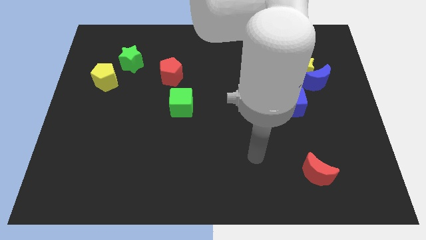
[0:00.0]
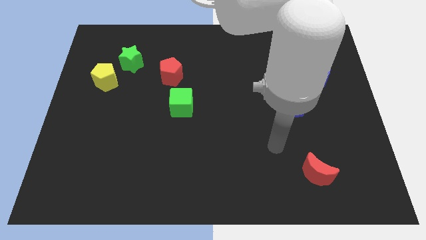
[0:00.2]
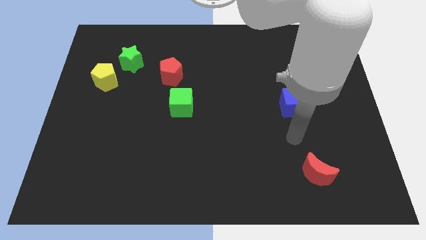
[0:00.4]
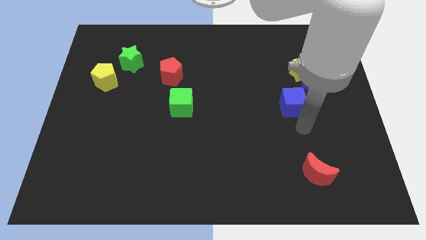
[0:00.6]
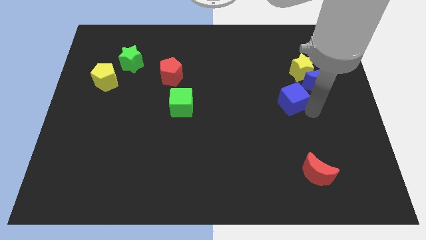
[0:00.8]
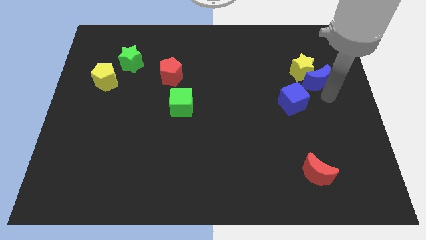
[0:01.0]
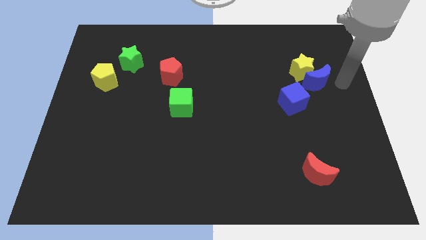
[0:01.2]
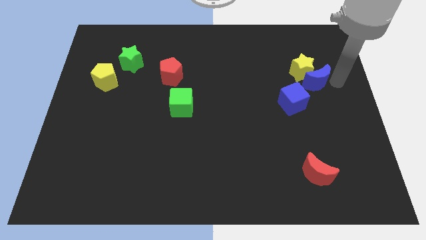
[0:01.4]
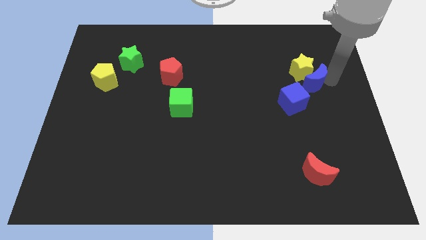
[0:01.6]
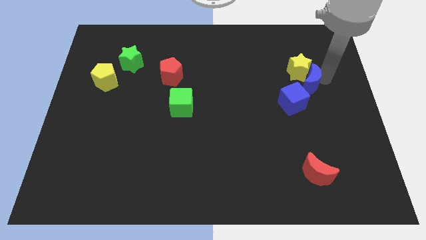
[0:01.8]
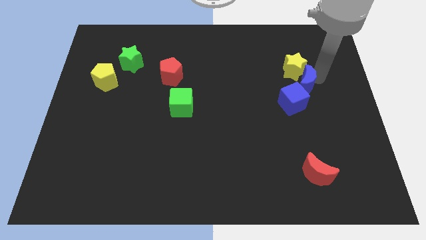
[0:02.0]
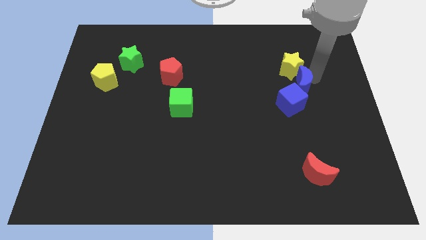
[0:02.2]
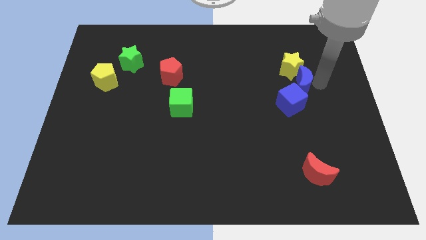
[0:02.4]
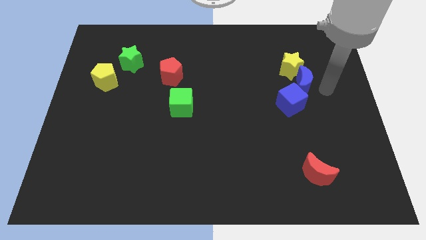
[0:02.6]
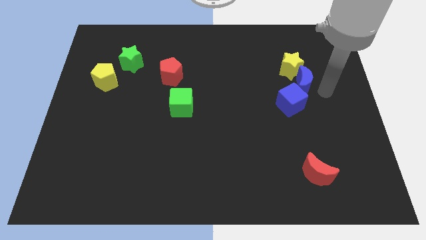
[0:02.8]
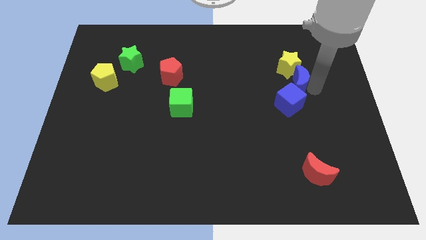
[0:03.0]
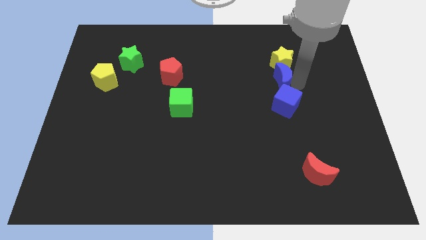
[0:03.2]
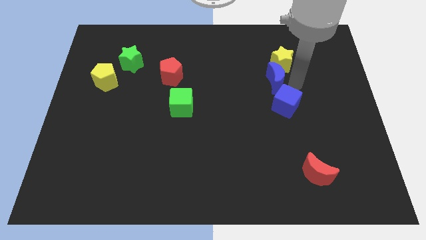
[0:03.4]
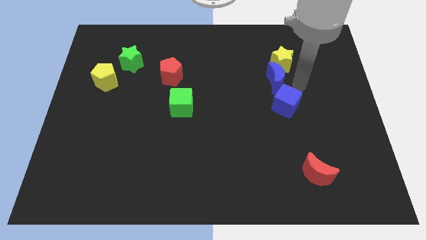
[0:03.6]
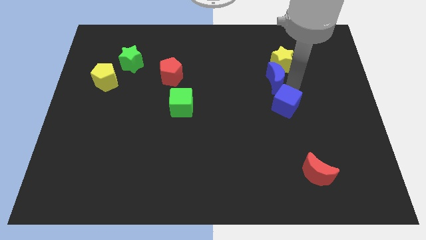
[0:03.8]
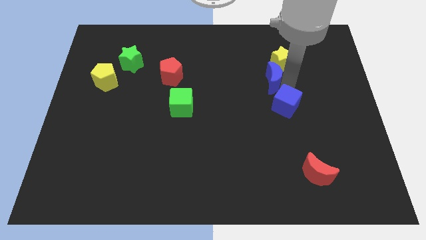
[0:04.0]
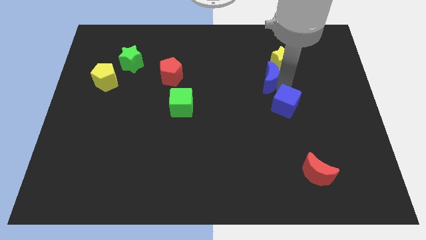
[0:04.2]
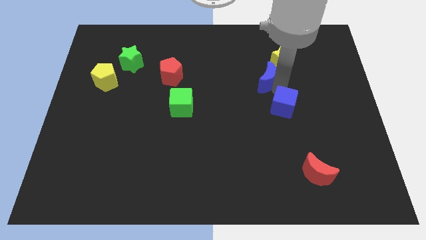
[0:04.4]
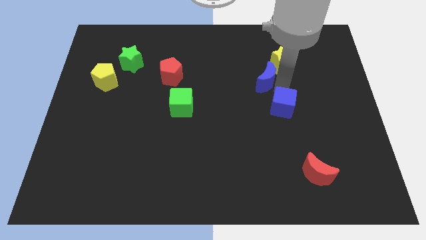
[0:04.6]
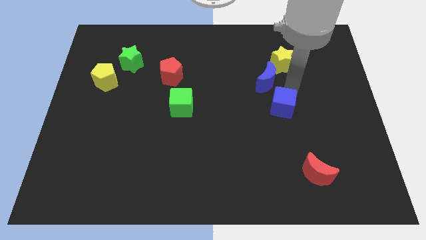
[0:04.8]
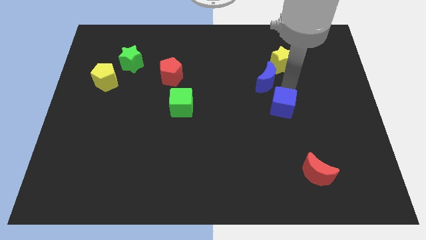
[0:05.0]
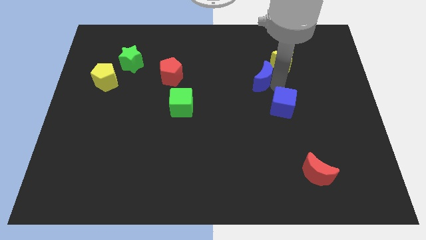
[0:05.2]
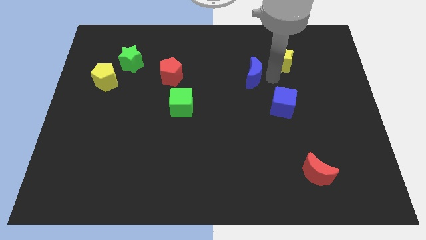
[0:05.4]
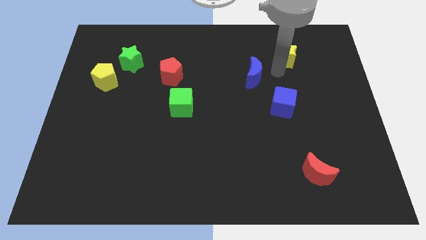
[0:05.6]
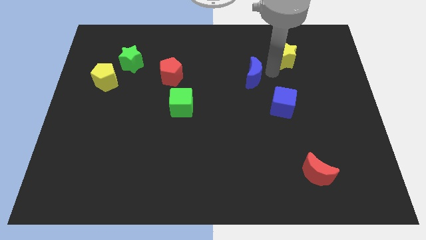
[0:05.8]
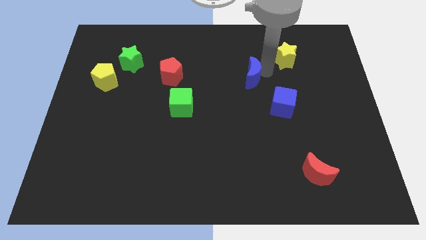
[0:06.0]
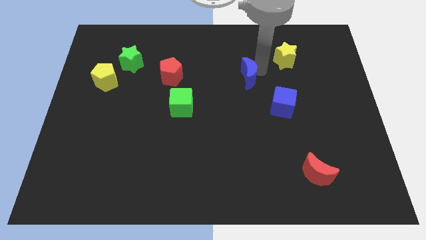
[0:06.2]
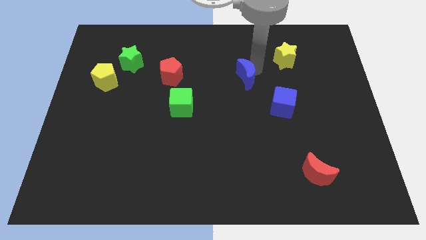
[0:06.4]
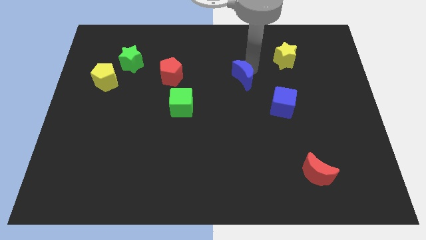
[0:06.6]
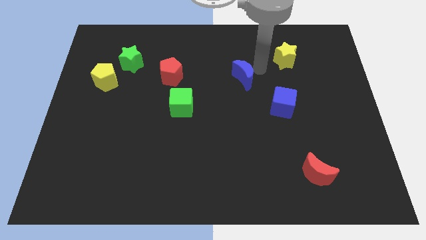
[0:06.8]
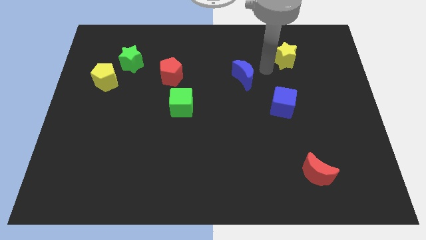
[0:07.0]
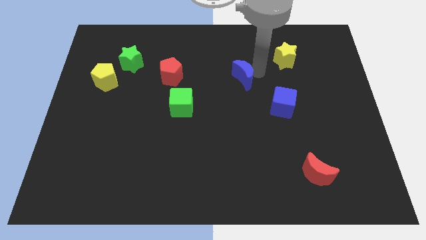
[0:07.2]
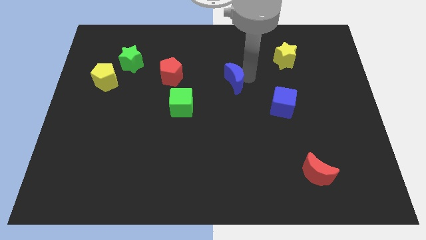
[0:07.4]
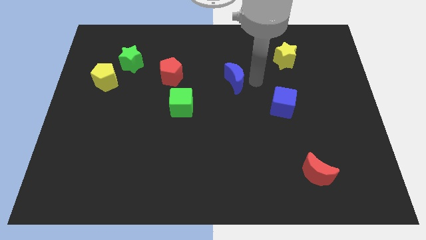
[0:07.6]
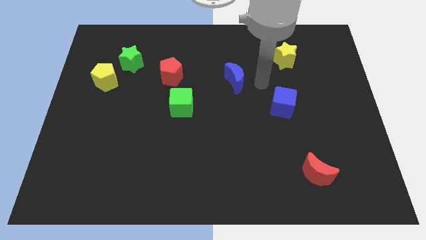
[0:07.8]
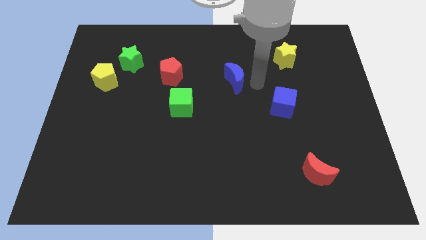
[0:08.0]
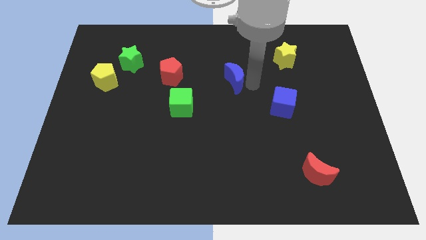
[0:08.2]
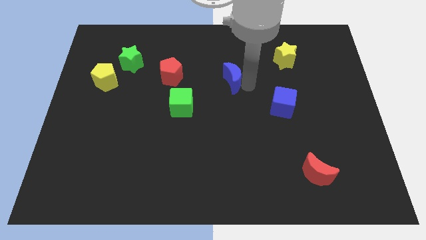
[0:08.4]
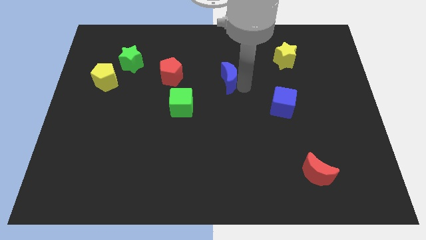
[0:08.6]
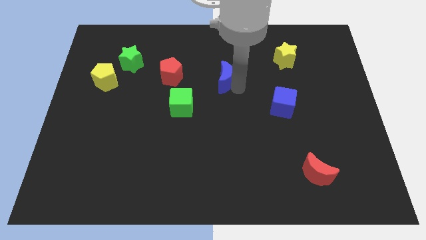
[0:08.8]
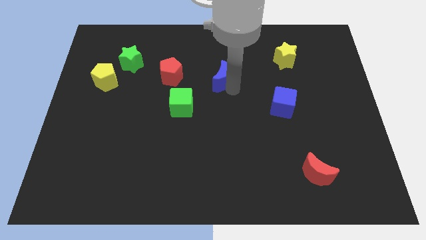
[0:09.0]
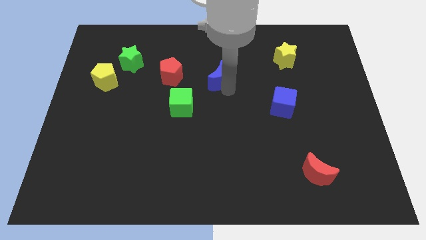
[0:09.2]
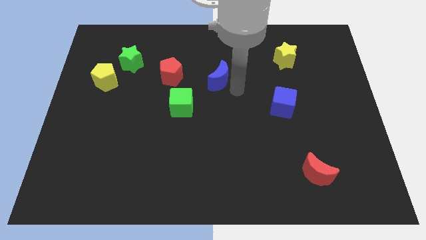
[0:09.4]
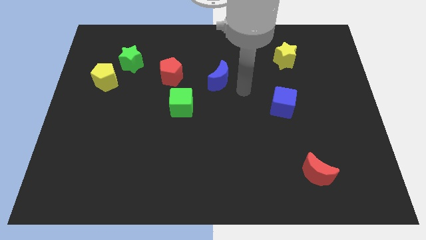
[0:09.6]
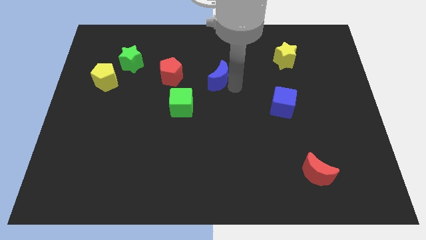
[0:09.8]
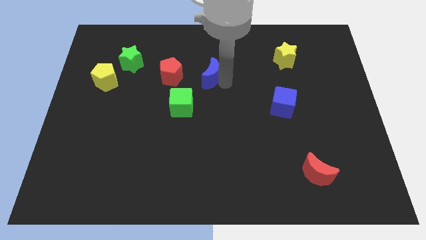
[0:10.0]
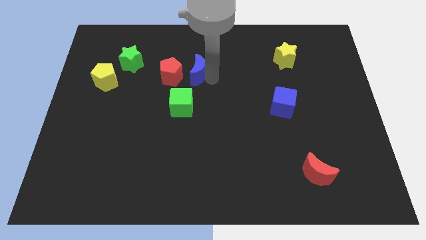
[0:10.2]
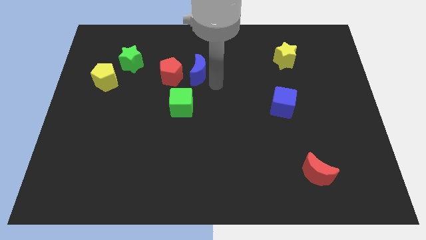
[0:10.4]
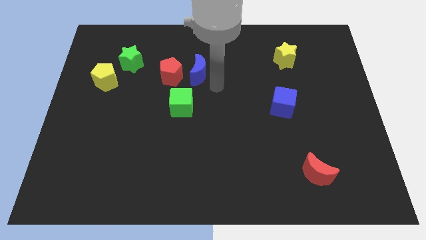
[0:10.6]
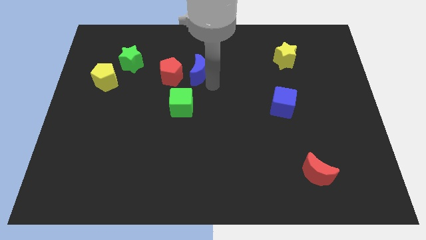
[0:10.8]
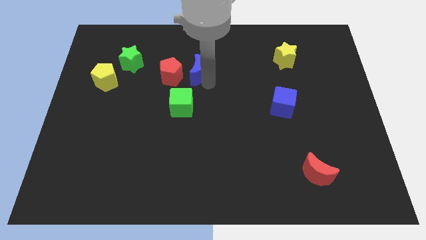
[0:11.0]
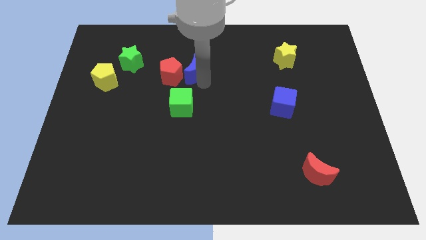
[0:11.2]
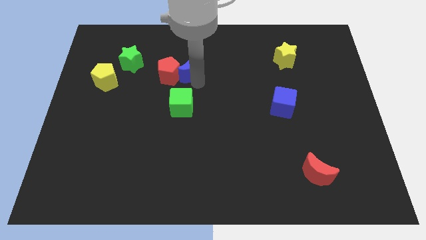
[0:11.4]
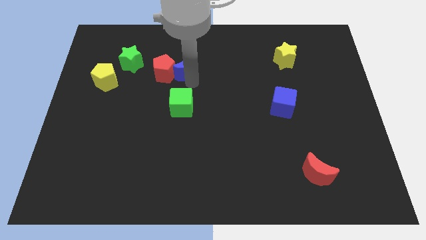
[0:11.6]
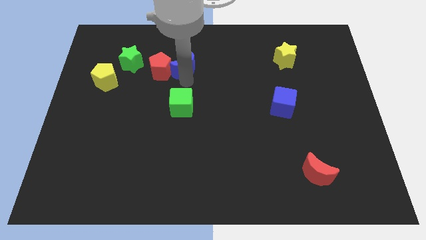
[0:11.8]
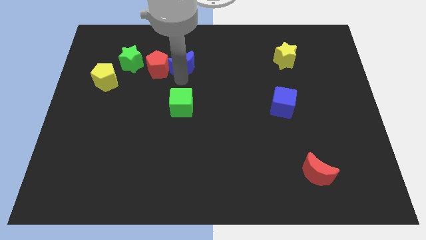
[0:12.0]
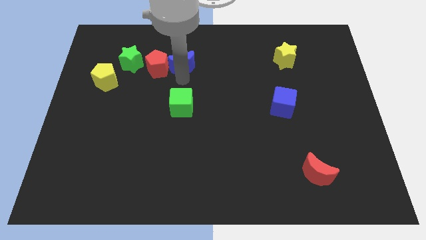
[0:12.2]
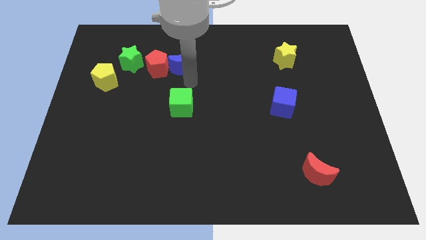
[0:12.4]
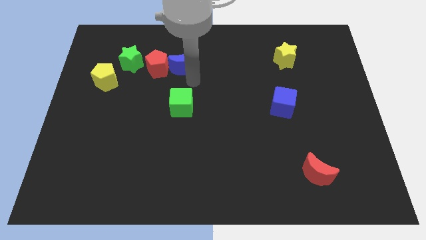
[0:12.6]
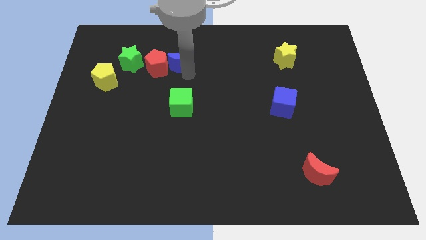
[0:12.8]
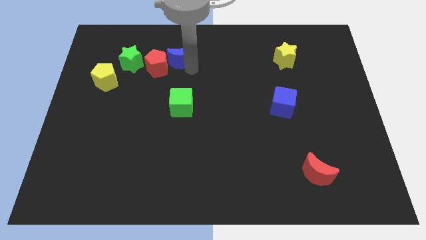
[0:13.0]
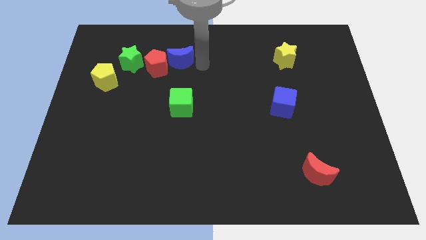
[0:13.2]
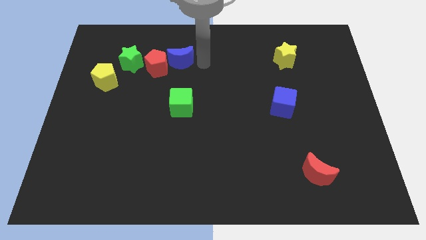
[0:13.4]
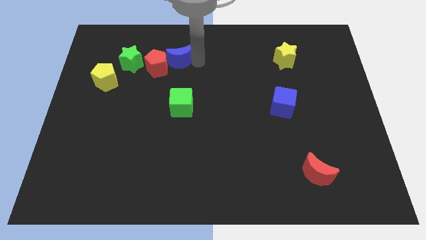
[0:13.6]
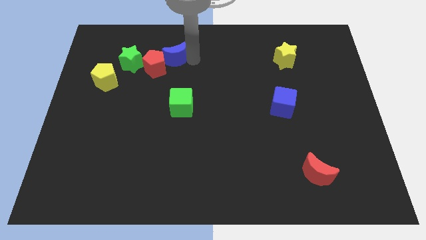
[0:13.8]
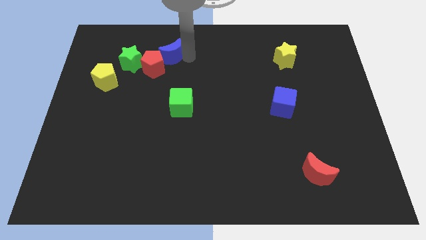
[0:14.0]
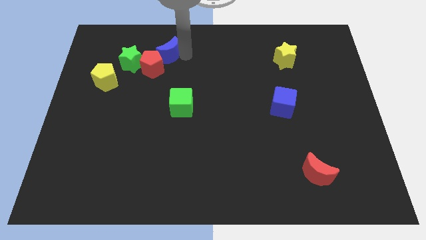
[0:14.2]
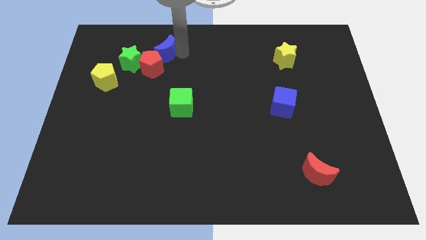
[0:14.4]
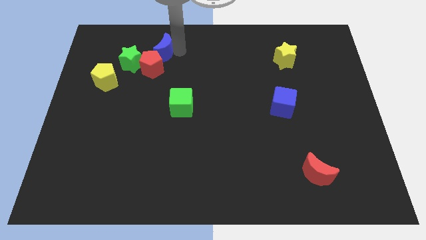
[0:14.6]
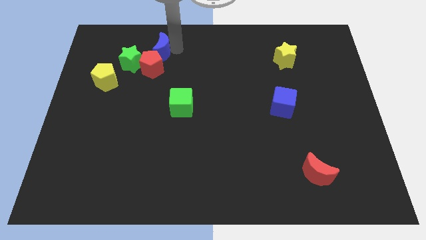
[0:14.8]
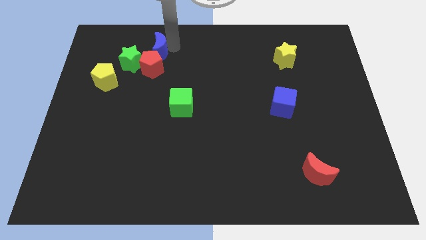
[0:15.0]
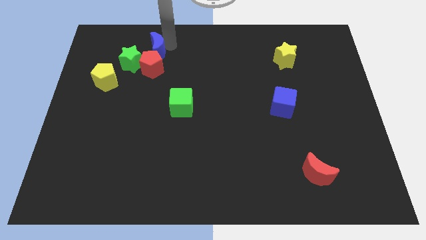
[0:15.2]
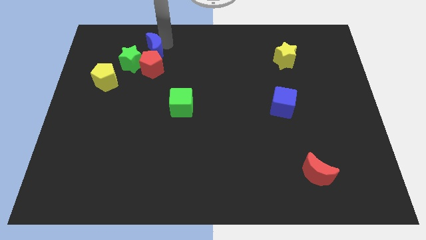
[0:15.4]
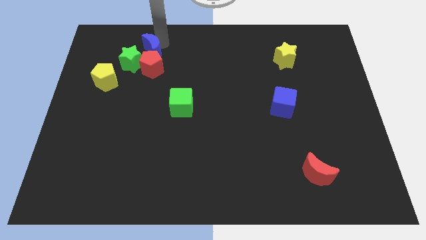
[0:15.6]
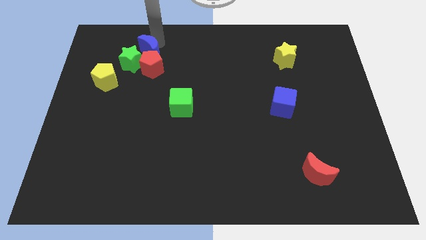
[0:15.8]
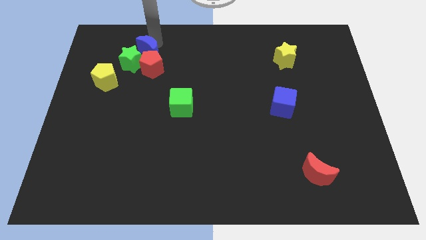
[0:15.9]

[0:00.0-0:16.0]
push the blue moon close to the green star
